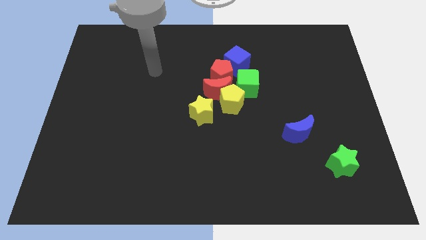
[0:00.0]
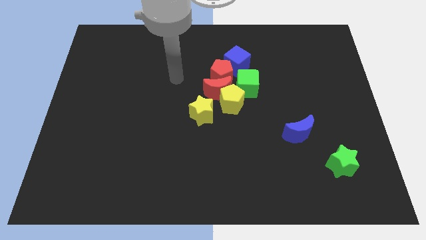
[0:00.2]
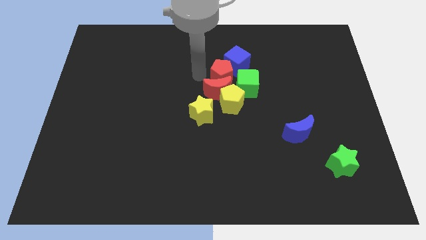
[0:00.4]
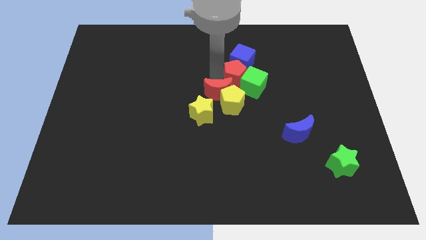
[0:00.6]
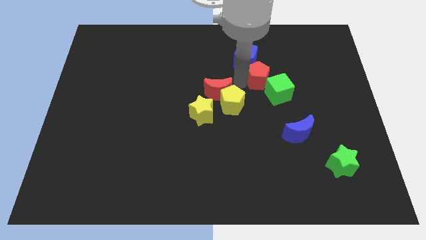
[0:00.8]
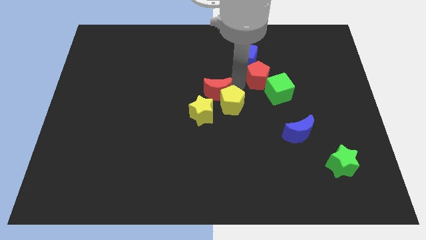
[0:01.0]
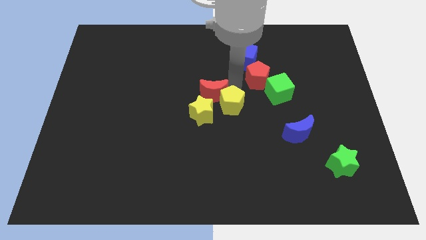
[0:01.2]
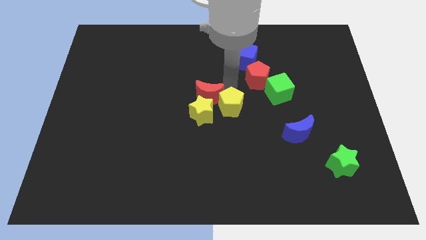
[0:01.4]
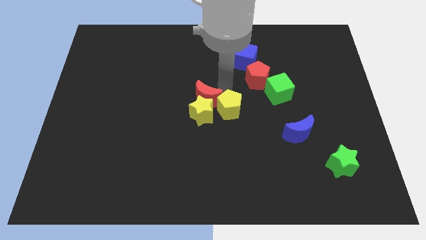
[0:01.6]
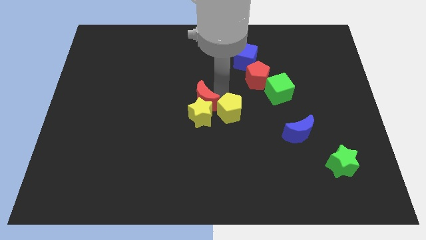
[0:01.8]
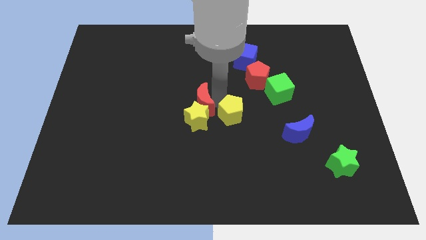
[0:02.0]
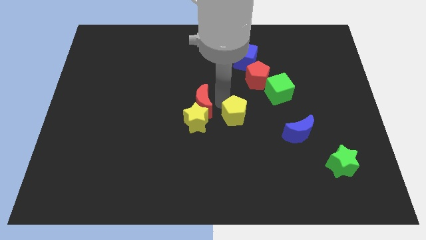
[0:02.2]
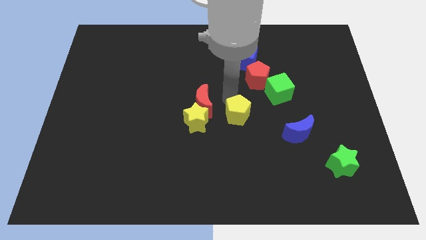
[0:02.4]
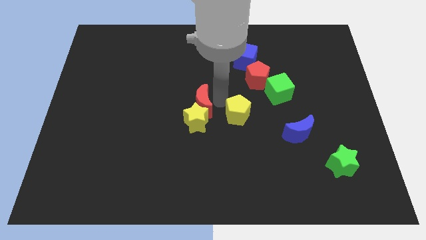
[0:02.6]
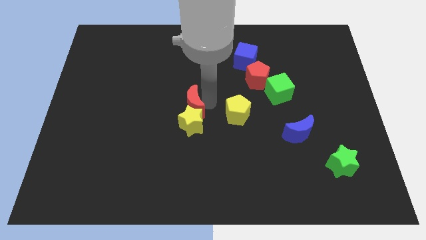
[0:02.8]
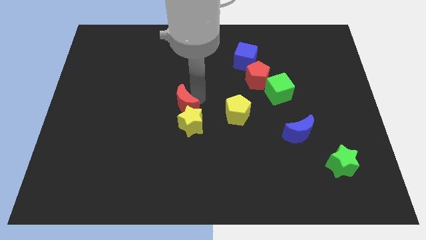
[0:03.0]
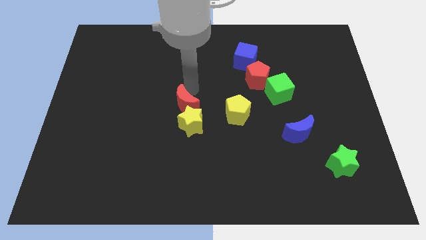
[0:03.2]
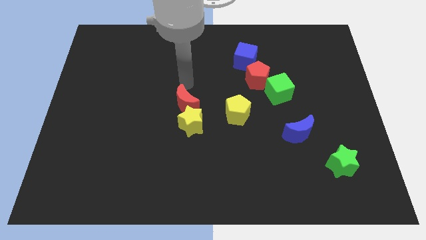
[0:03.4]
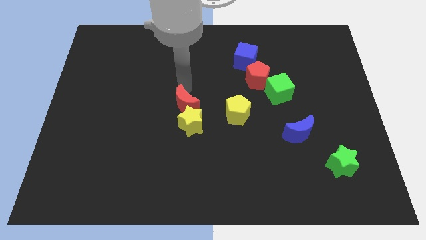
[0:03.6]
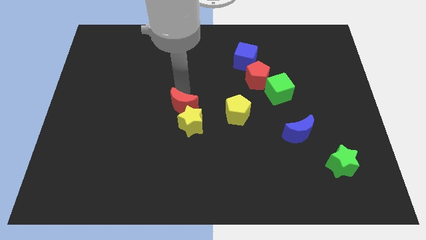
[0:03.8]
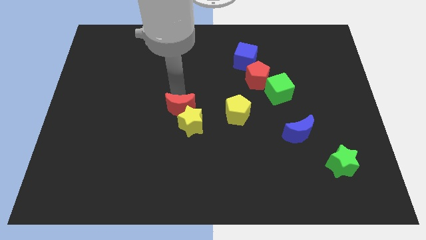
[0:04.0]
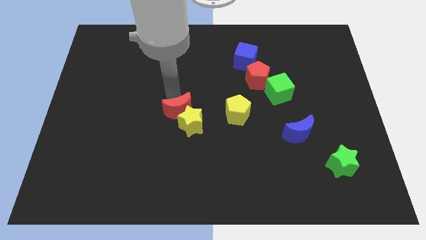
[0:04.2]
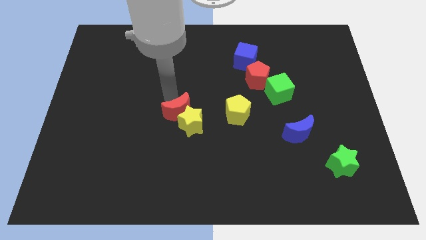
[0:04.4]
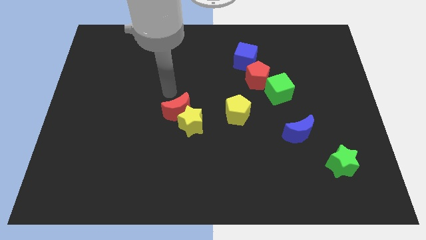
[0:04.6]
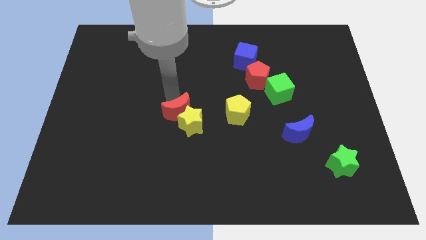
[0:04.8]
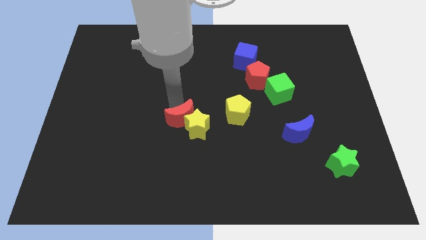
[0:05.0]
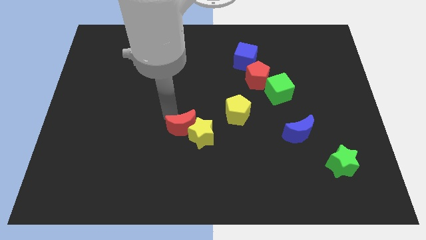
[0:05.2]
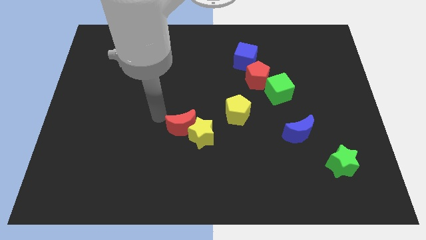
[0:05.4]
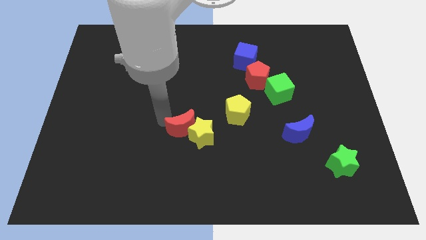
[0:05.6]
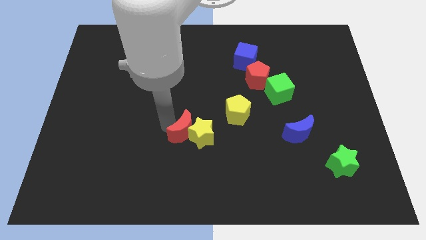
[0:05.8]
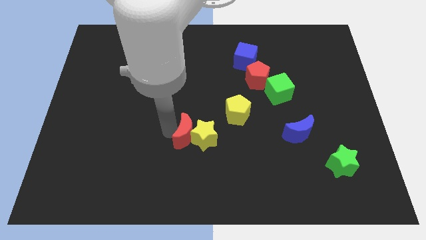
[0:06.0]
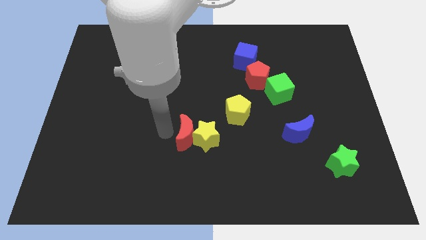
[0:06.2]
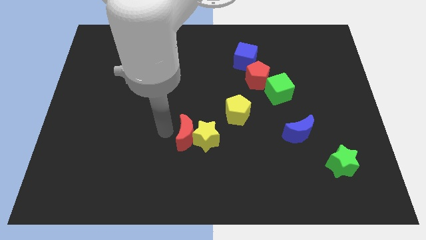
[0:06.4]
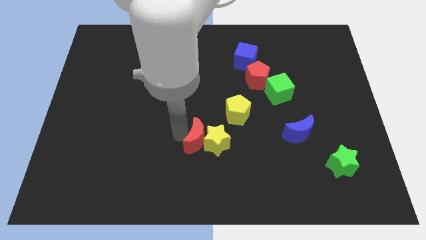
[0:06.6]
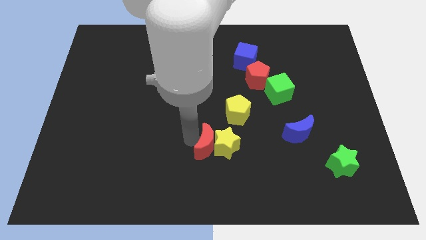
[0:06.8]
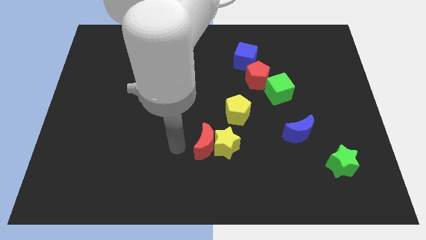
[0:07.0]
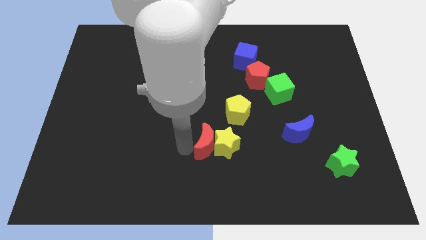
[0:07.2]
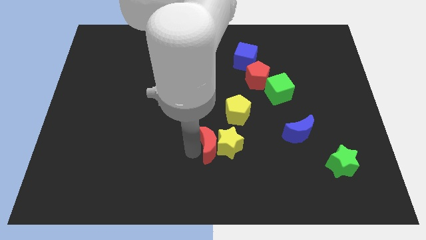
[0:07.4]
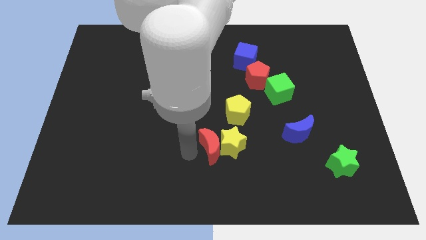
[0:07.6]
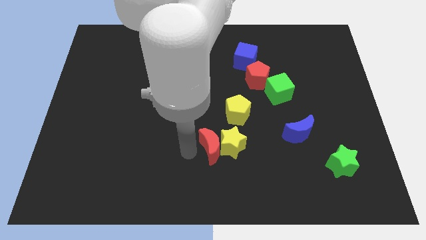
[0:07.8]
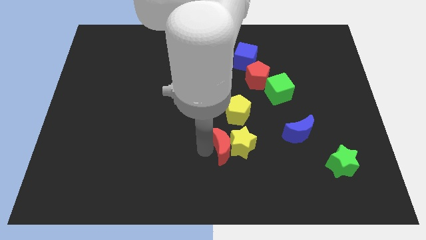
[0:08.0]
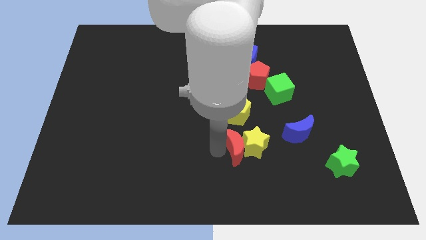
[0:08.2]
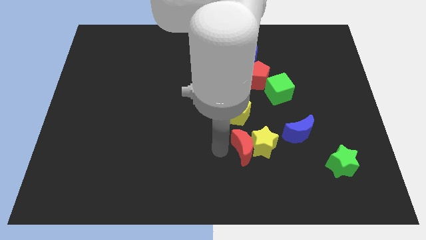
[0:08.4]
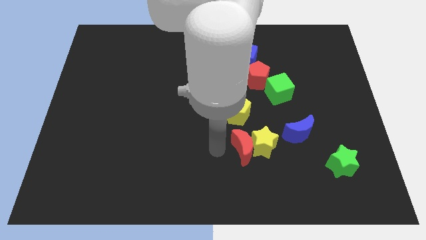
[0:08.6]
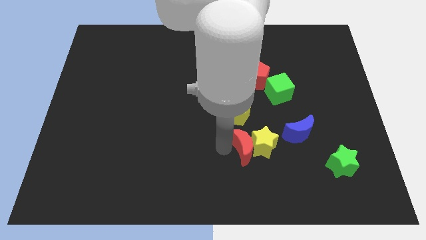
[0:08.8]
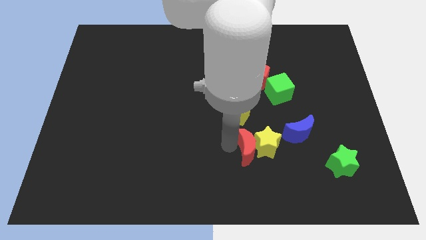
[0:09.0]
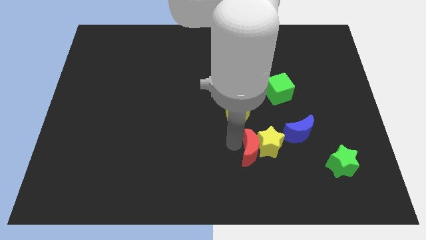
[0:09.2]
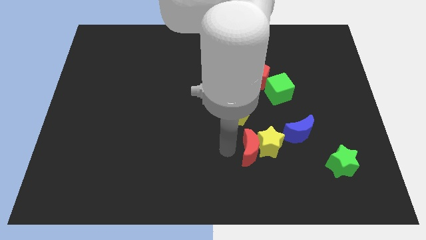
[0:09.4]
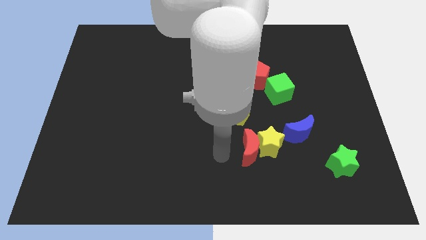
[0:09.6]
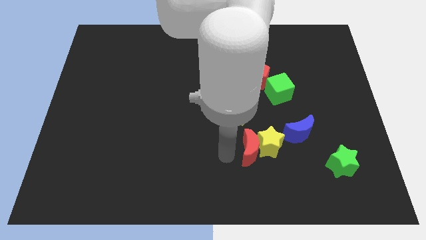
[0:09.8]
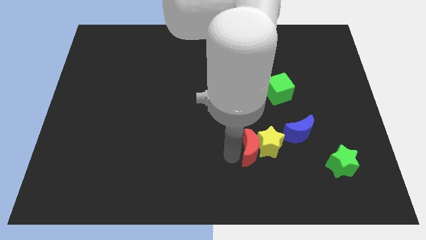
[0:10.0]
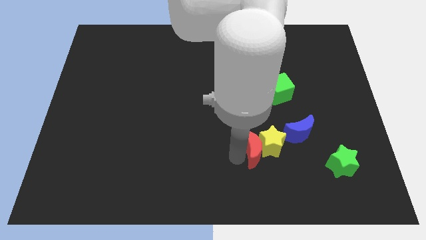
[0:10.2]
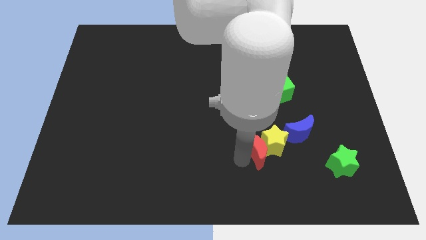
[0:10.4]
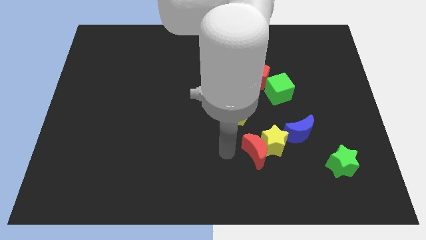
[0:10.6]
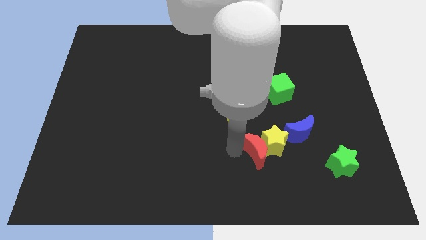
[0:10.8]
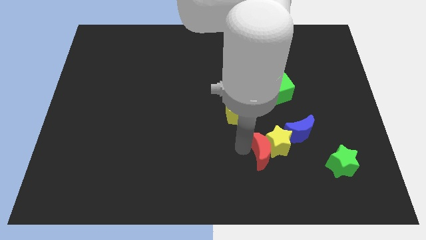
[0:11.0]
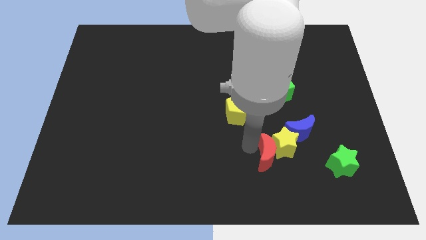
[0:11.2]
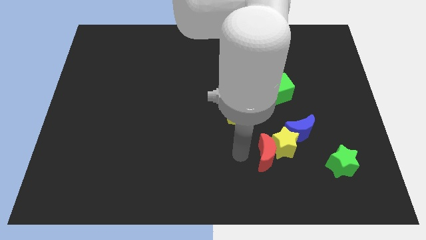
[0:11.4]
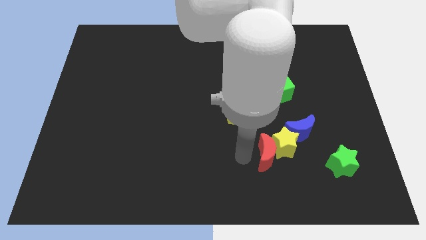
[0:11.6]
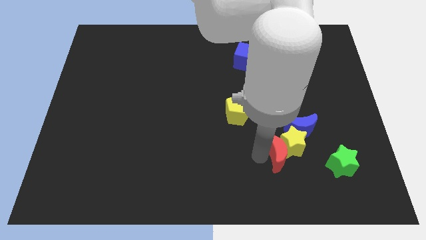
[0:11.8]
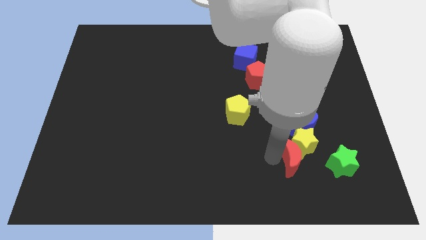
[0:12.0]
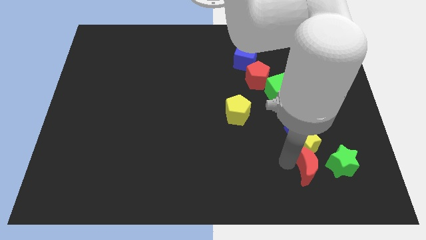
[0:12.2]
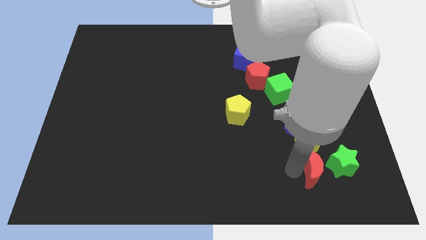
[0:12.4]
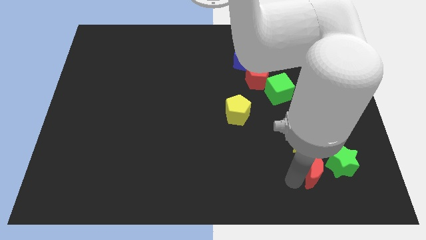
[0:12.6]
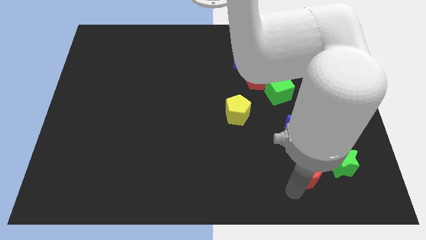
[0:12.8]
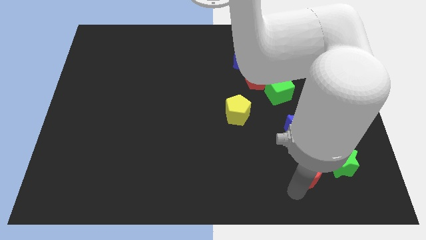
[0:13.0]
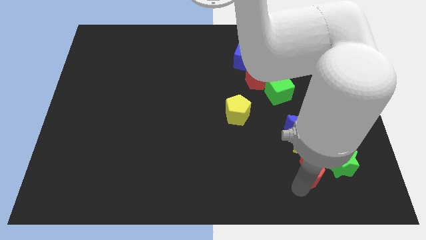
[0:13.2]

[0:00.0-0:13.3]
put the red moon towards the green star

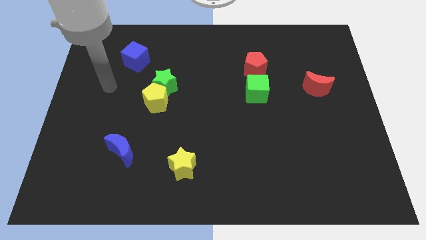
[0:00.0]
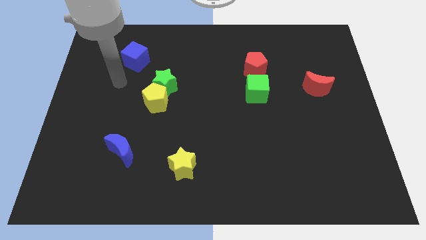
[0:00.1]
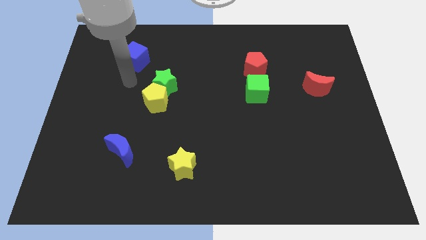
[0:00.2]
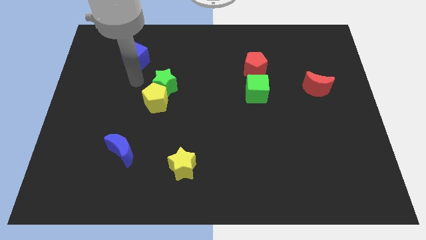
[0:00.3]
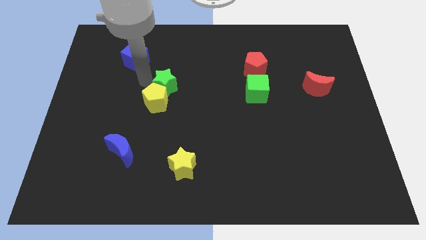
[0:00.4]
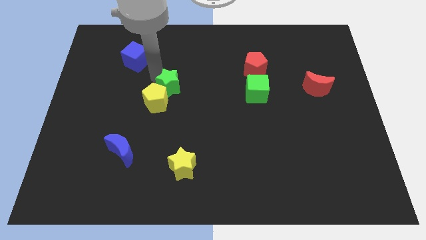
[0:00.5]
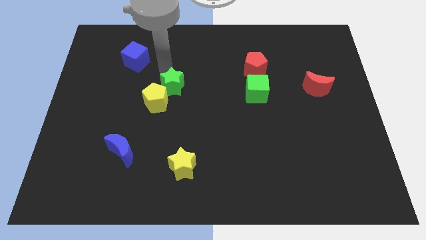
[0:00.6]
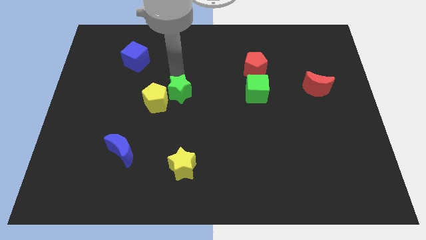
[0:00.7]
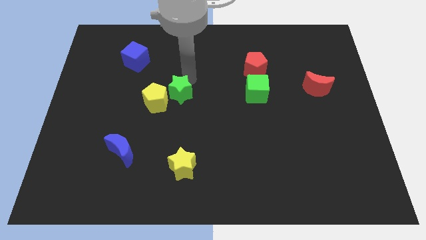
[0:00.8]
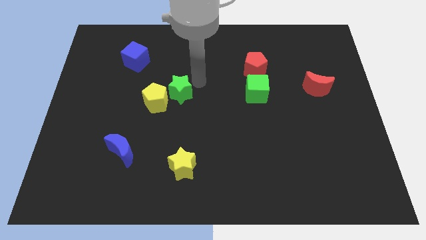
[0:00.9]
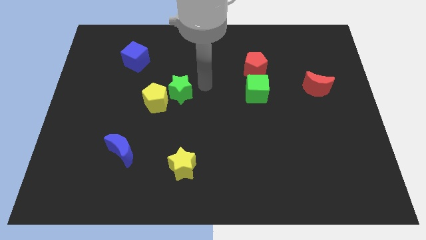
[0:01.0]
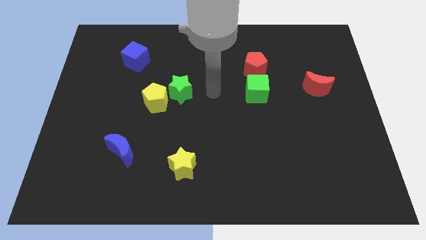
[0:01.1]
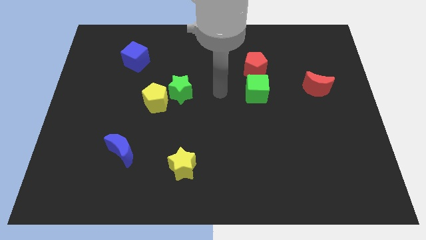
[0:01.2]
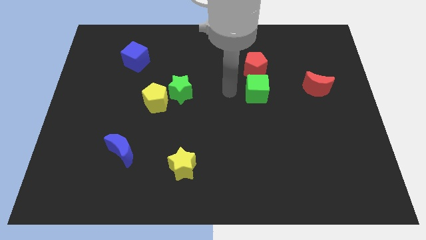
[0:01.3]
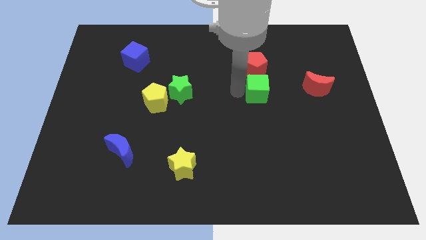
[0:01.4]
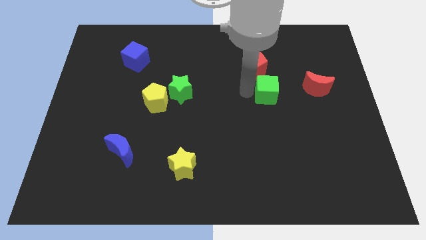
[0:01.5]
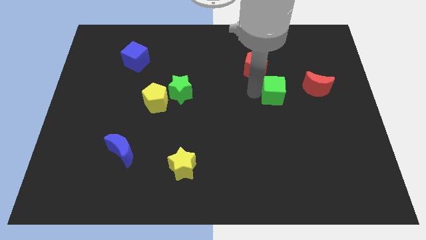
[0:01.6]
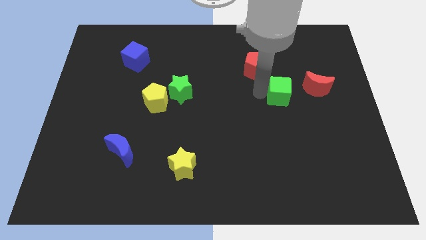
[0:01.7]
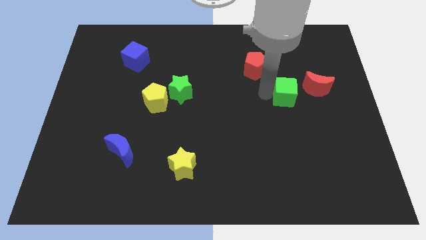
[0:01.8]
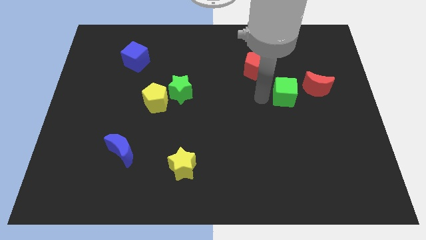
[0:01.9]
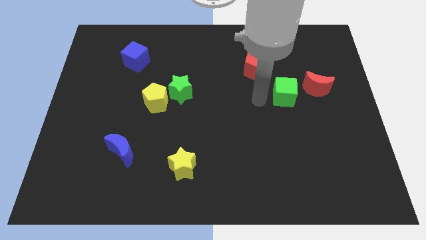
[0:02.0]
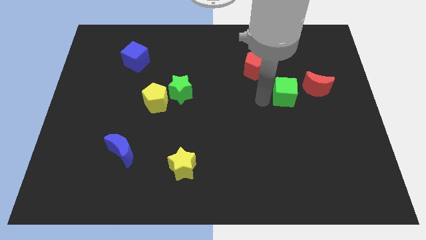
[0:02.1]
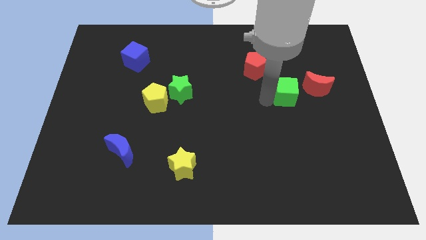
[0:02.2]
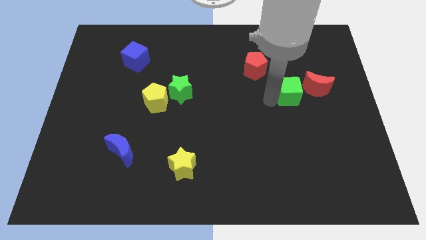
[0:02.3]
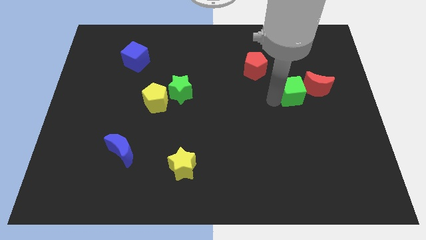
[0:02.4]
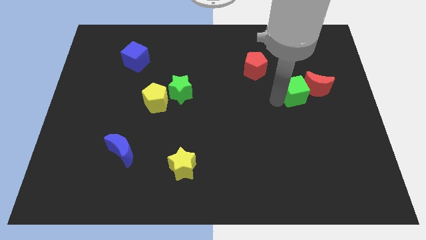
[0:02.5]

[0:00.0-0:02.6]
slide the green cube to the red moon
